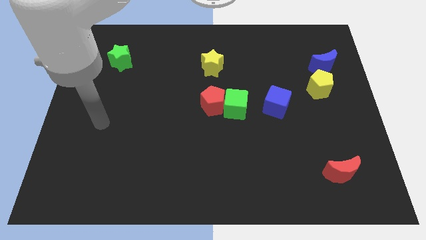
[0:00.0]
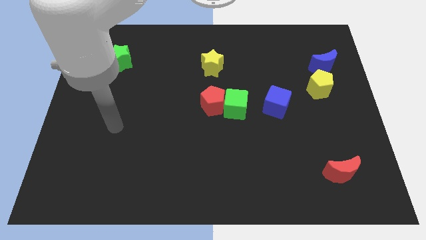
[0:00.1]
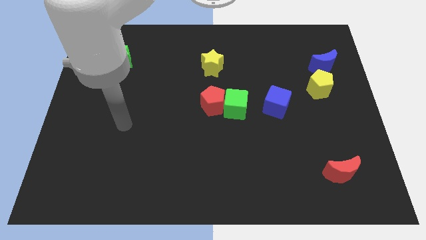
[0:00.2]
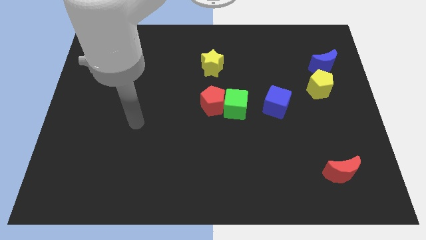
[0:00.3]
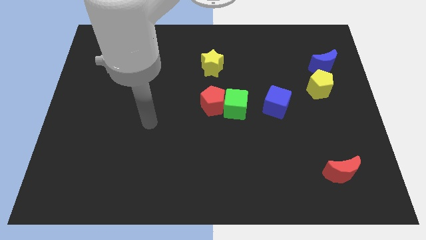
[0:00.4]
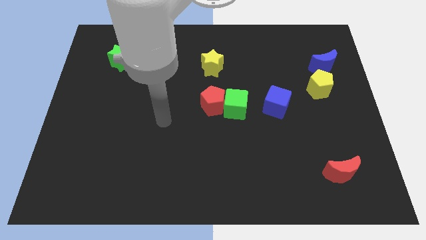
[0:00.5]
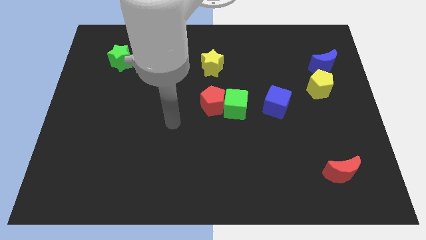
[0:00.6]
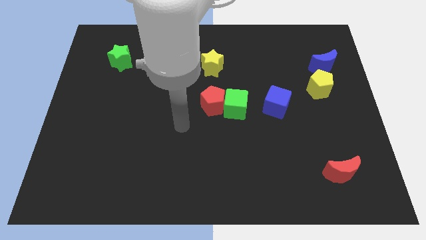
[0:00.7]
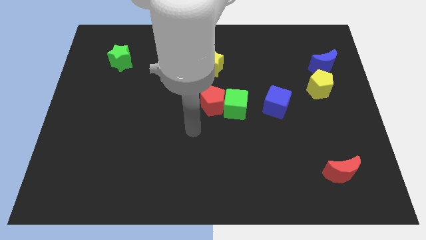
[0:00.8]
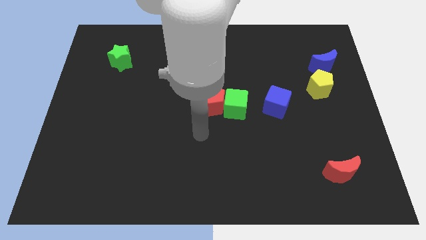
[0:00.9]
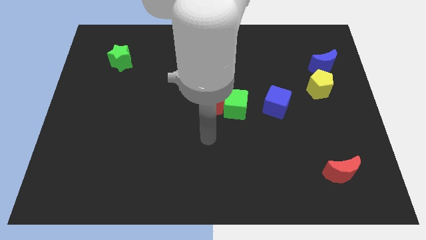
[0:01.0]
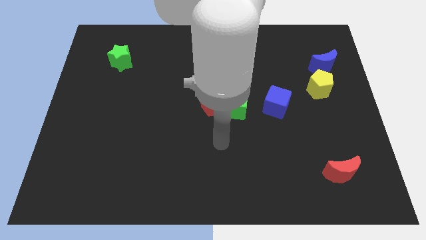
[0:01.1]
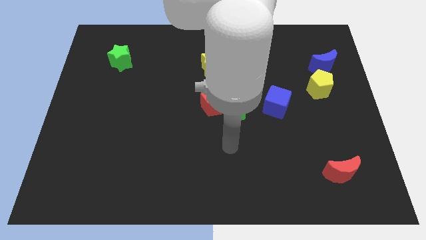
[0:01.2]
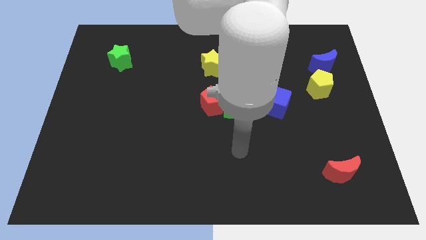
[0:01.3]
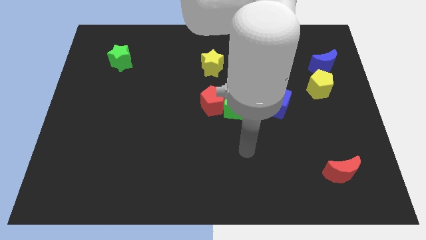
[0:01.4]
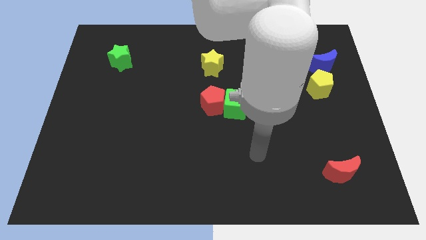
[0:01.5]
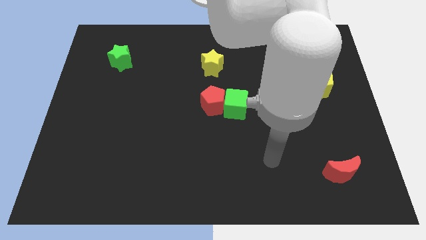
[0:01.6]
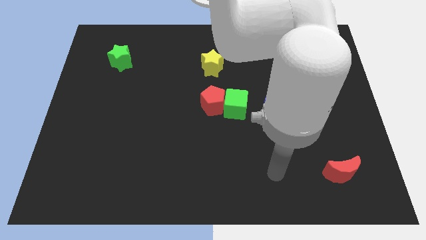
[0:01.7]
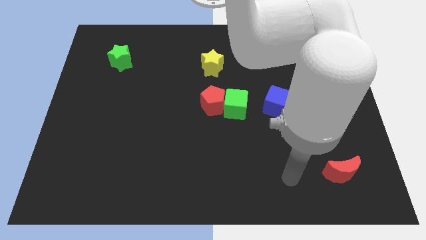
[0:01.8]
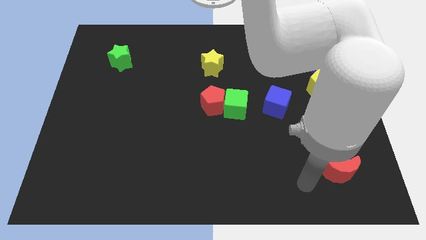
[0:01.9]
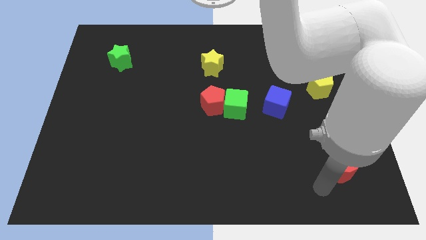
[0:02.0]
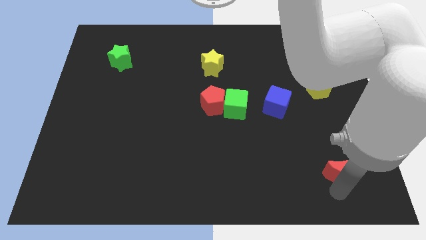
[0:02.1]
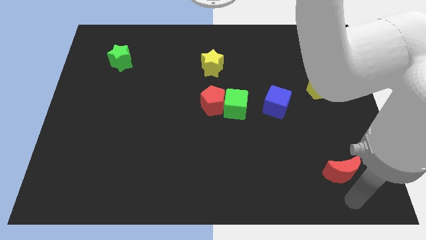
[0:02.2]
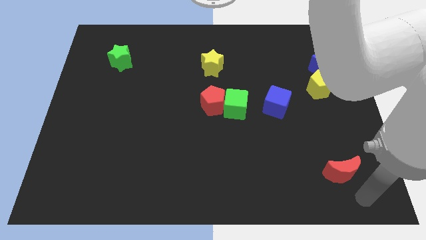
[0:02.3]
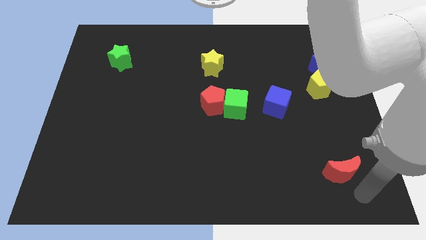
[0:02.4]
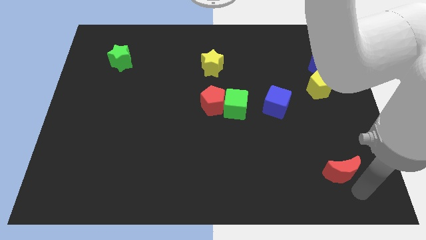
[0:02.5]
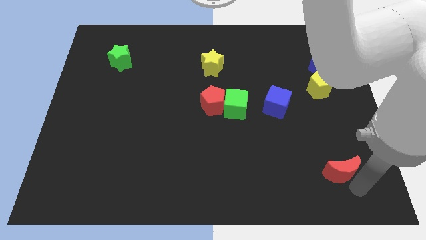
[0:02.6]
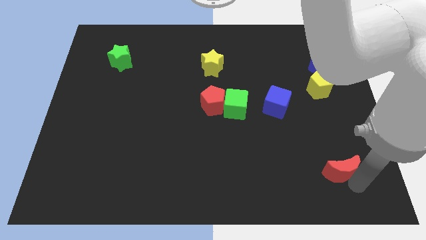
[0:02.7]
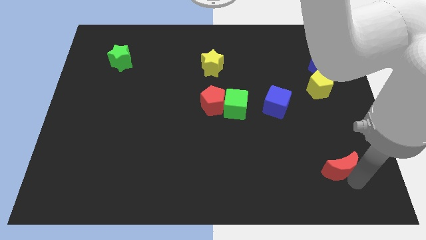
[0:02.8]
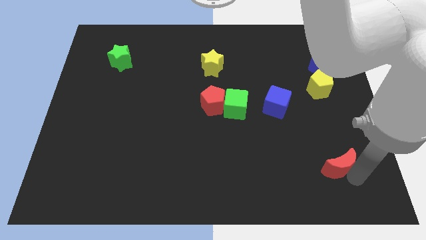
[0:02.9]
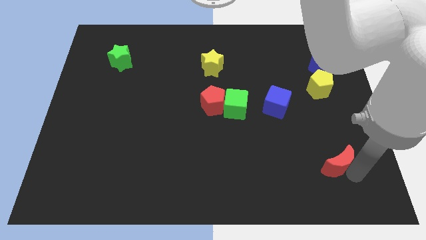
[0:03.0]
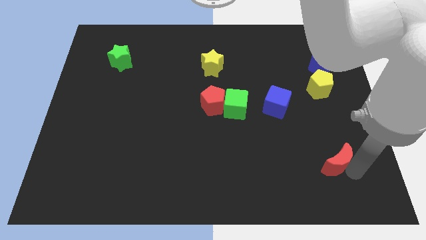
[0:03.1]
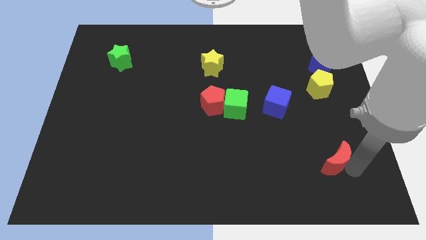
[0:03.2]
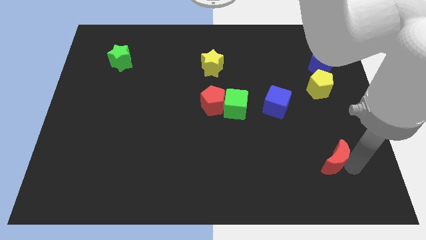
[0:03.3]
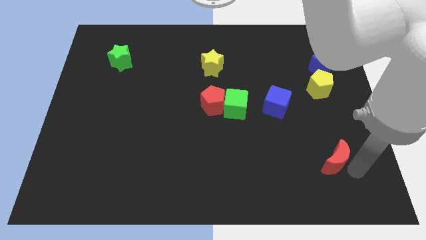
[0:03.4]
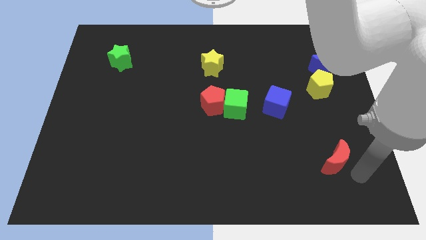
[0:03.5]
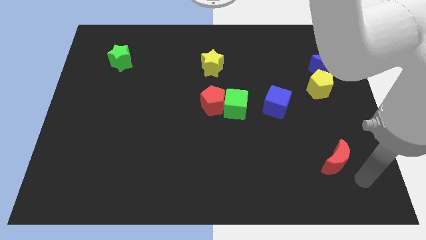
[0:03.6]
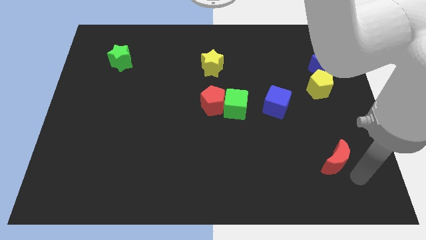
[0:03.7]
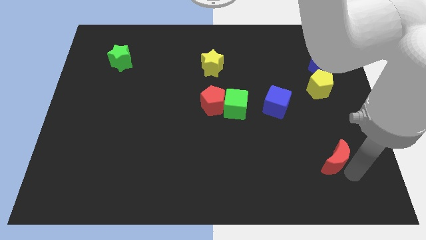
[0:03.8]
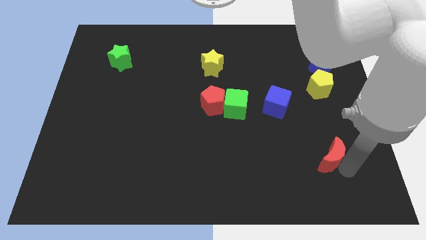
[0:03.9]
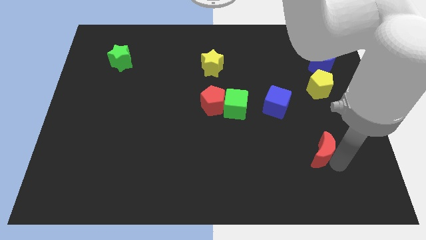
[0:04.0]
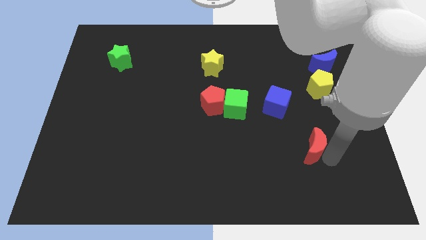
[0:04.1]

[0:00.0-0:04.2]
slide the red moon up and to the left diagonally a little bit

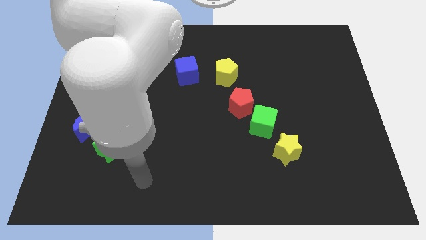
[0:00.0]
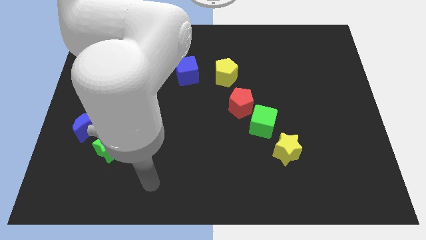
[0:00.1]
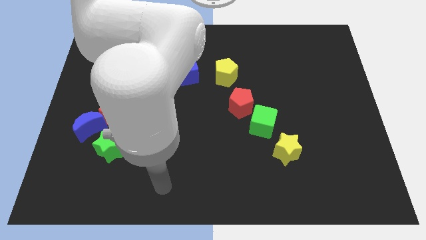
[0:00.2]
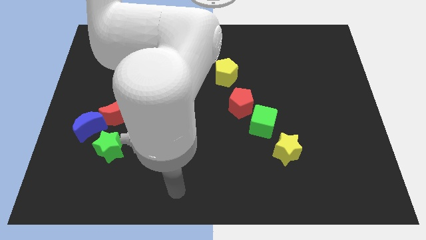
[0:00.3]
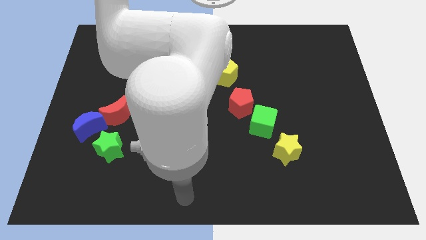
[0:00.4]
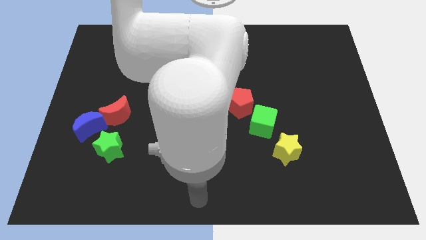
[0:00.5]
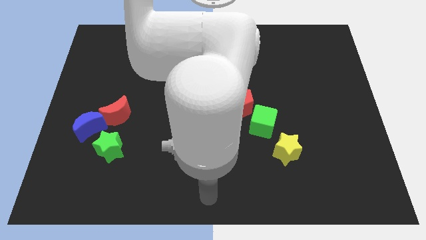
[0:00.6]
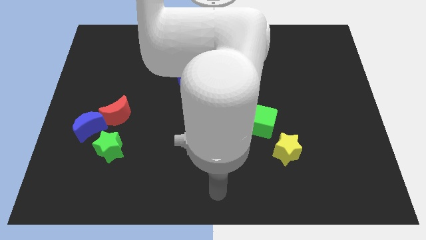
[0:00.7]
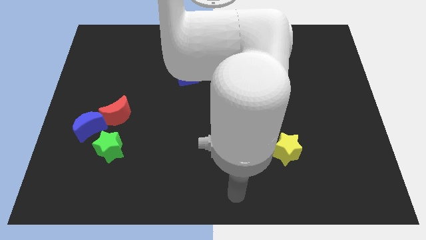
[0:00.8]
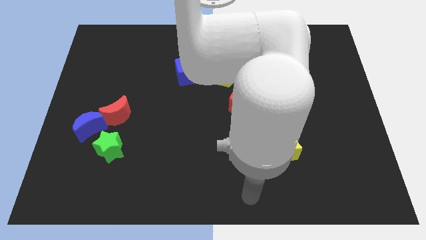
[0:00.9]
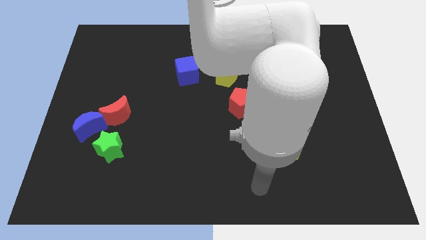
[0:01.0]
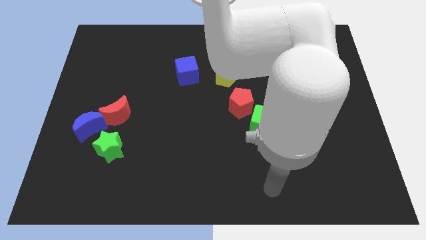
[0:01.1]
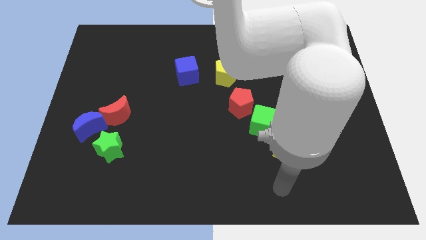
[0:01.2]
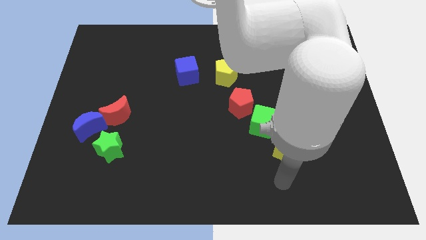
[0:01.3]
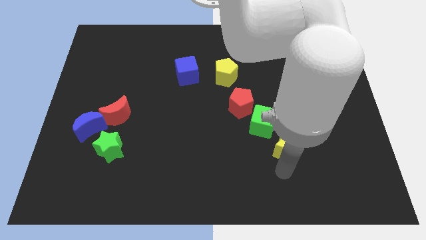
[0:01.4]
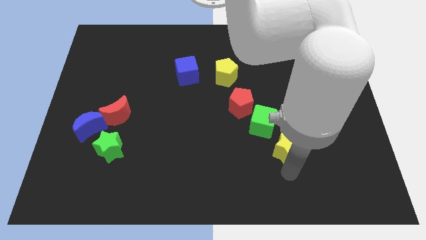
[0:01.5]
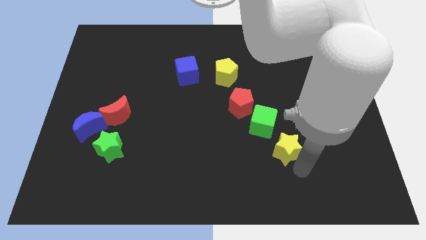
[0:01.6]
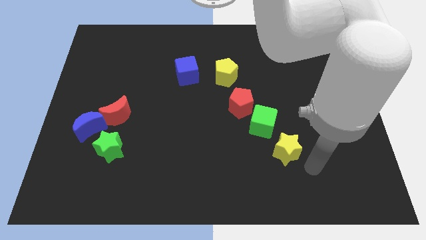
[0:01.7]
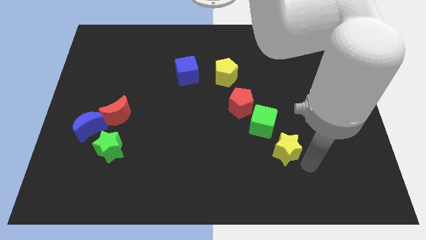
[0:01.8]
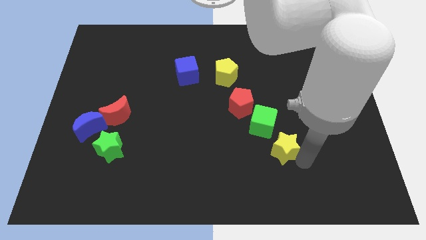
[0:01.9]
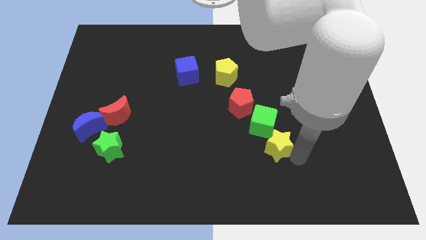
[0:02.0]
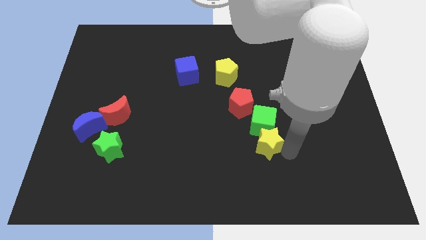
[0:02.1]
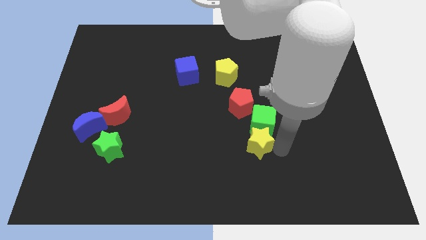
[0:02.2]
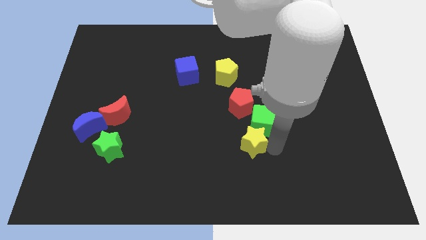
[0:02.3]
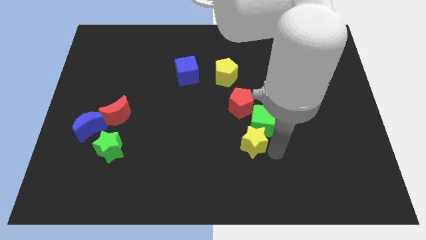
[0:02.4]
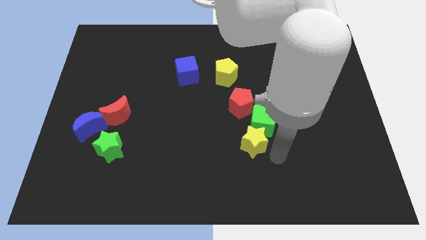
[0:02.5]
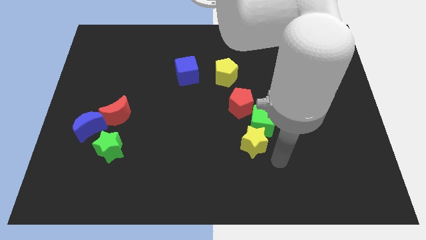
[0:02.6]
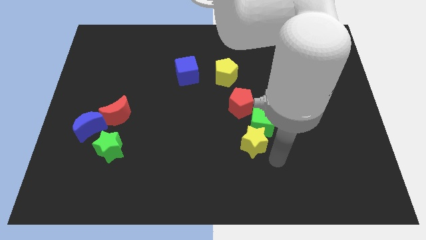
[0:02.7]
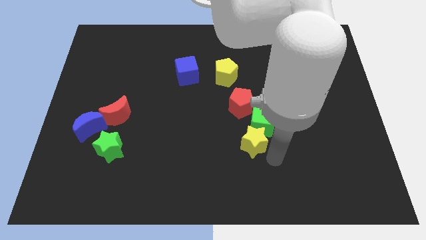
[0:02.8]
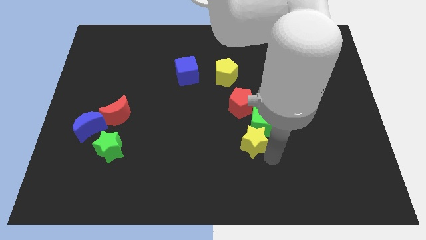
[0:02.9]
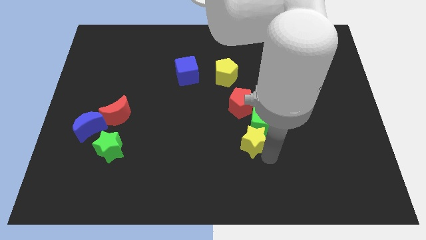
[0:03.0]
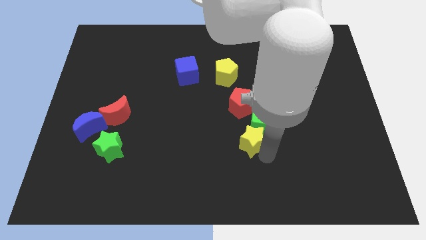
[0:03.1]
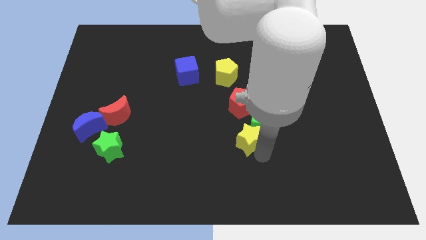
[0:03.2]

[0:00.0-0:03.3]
slightly slide the yellow star diagonally up and left

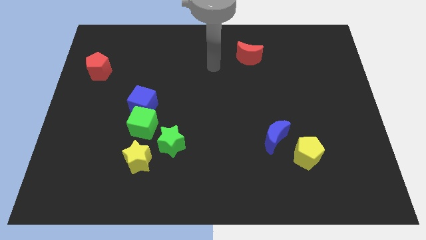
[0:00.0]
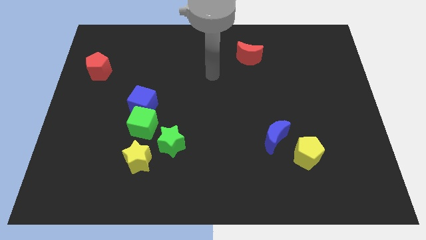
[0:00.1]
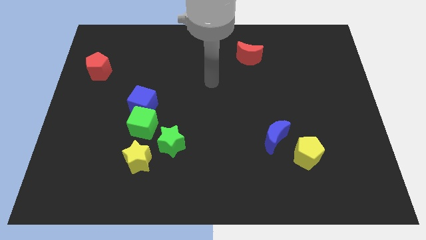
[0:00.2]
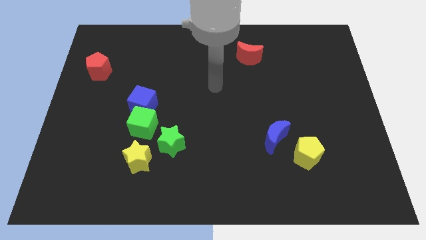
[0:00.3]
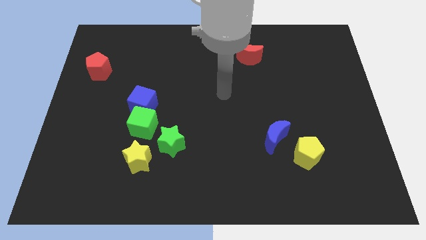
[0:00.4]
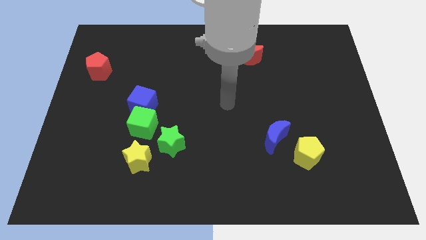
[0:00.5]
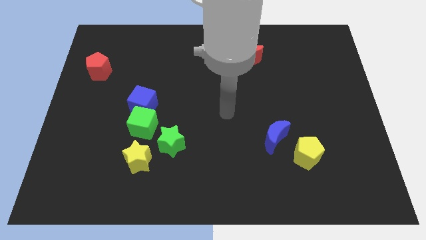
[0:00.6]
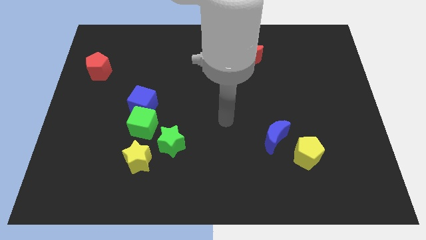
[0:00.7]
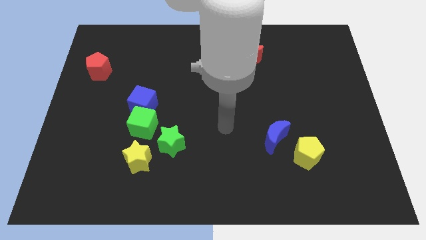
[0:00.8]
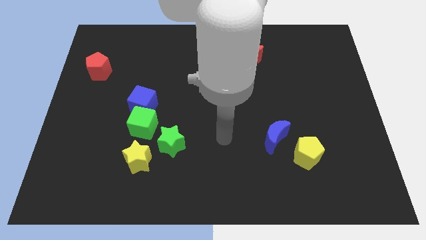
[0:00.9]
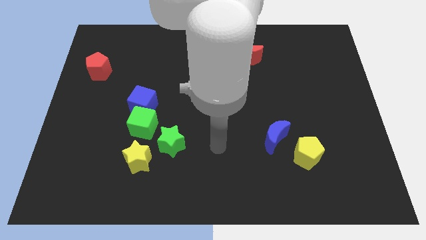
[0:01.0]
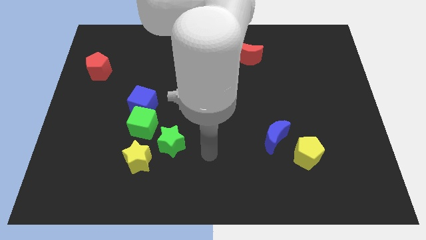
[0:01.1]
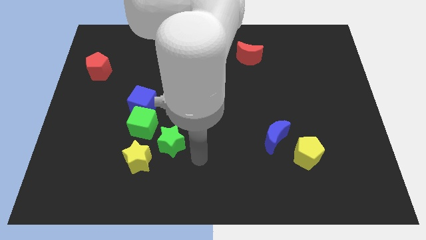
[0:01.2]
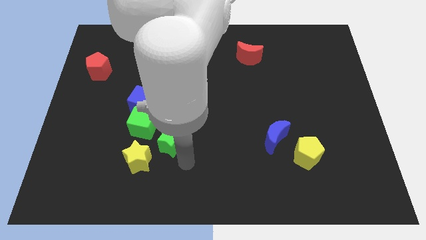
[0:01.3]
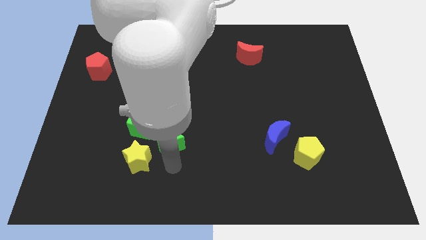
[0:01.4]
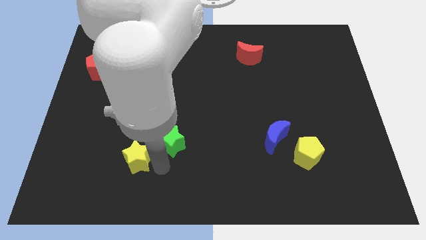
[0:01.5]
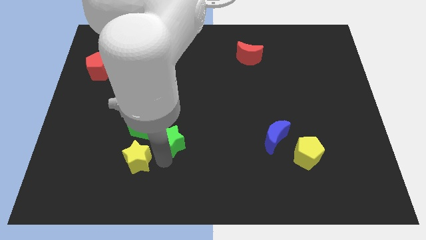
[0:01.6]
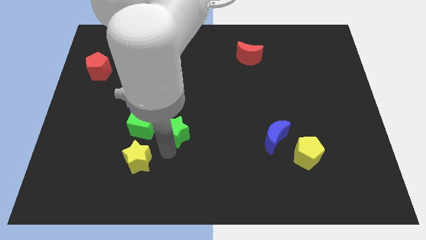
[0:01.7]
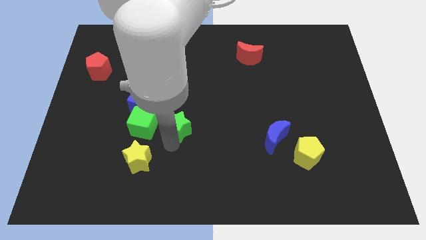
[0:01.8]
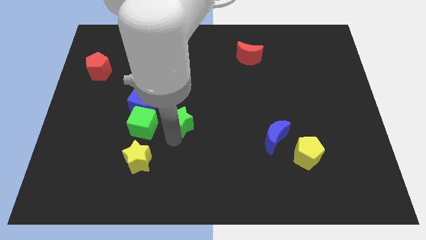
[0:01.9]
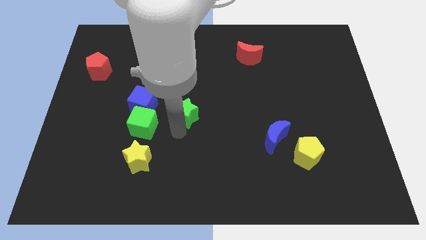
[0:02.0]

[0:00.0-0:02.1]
move the green star up slightly
